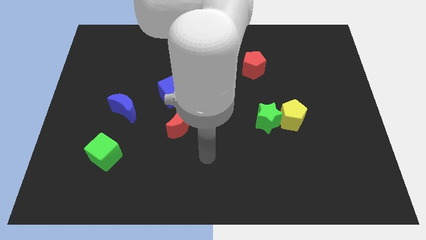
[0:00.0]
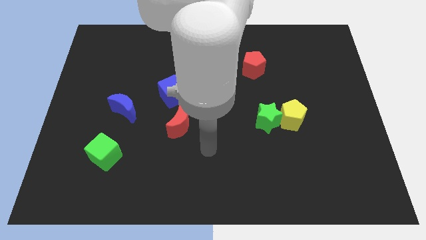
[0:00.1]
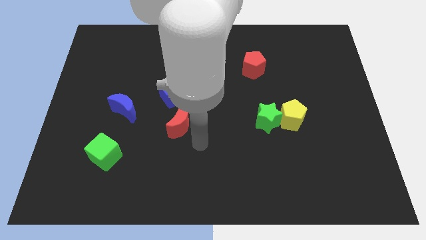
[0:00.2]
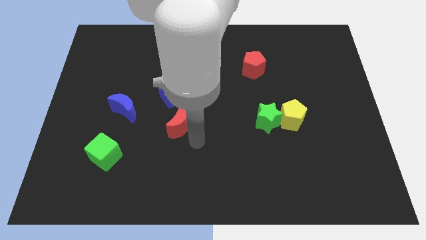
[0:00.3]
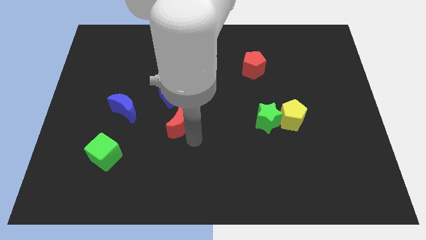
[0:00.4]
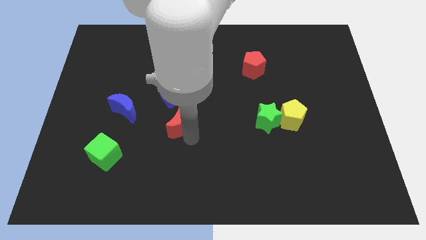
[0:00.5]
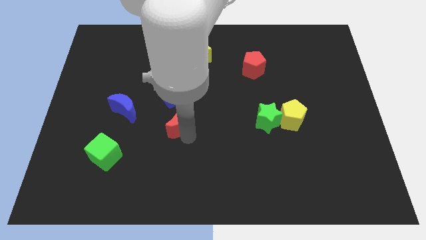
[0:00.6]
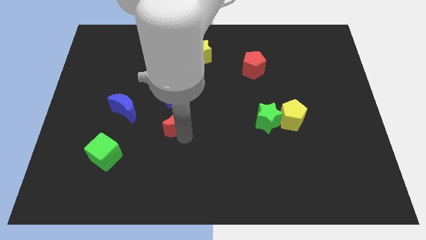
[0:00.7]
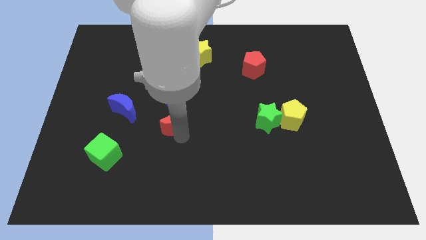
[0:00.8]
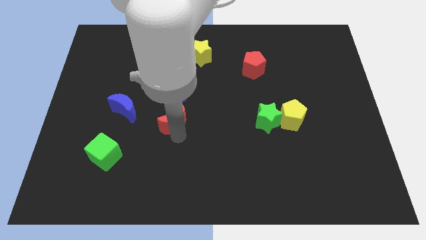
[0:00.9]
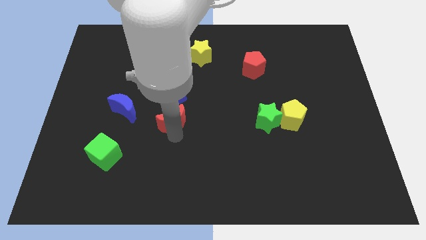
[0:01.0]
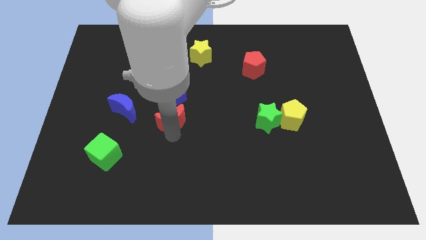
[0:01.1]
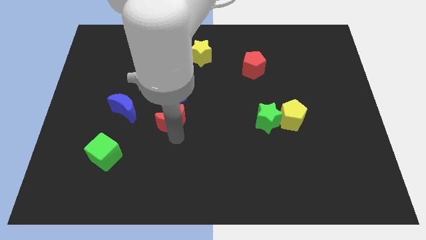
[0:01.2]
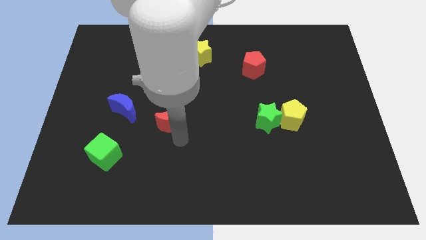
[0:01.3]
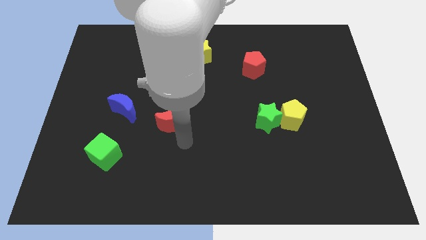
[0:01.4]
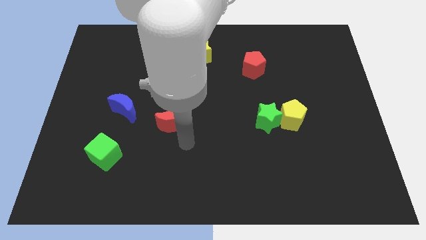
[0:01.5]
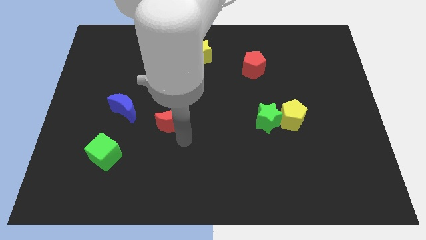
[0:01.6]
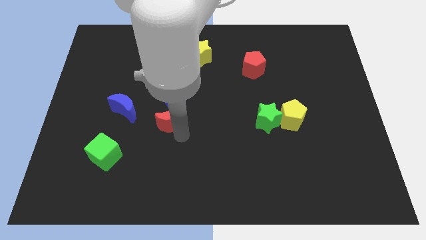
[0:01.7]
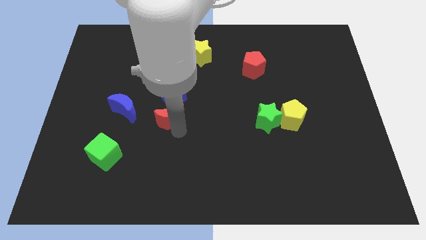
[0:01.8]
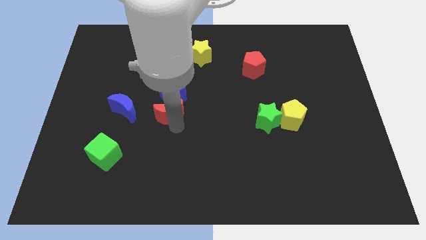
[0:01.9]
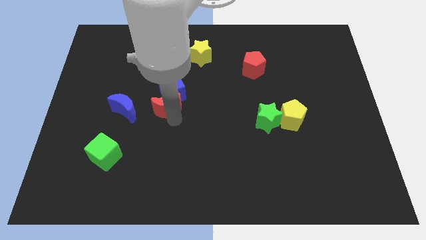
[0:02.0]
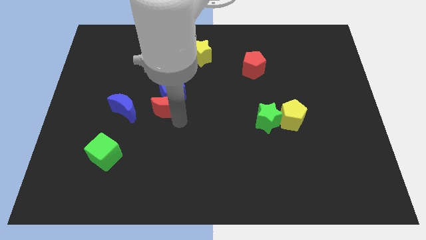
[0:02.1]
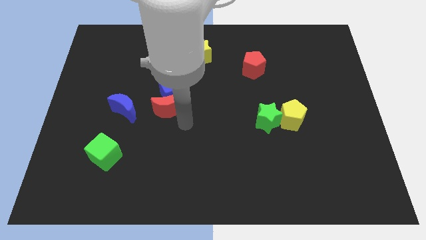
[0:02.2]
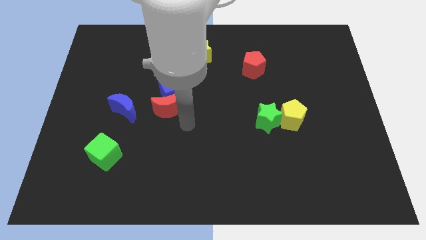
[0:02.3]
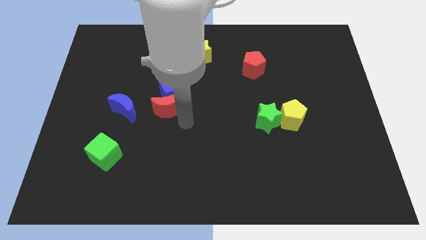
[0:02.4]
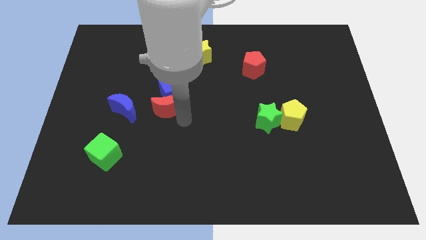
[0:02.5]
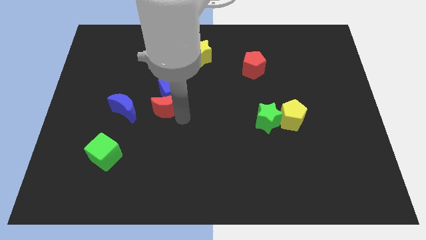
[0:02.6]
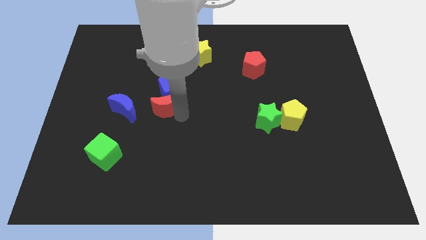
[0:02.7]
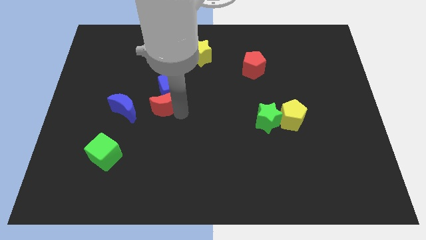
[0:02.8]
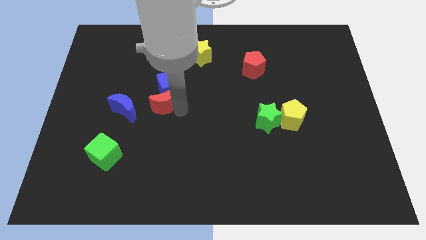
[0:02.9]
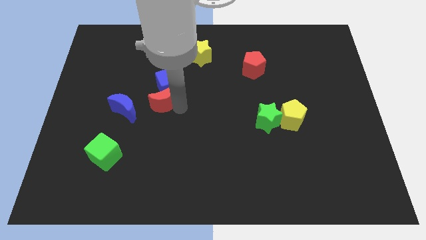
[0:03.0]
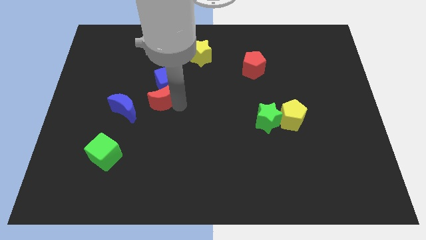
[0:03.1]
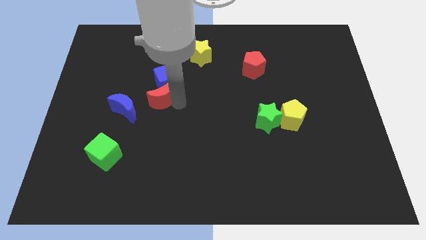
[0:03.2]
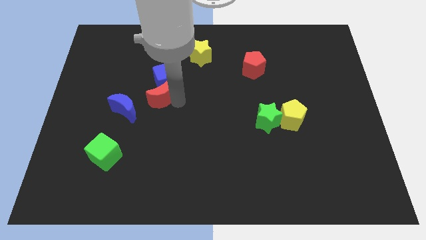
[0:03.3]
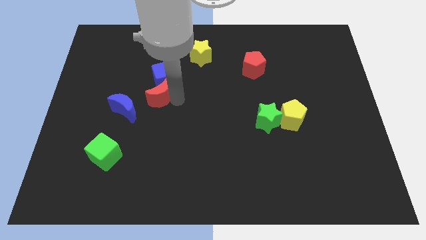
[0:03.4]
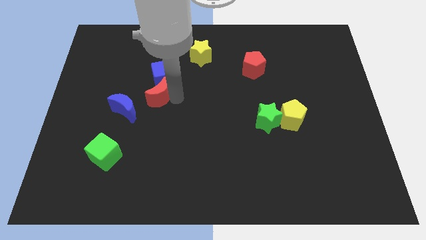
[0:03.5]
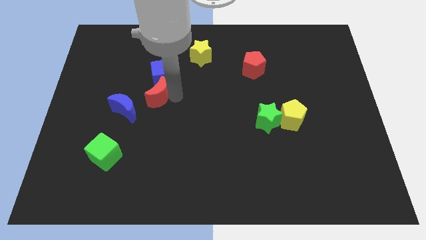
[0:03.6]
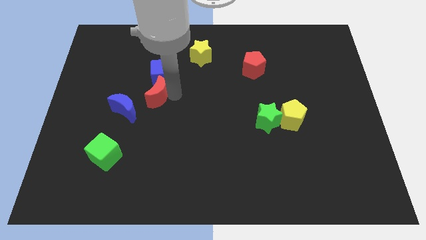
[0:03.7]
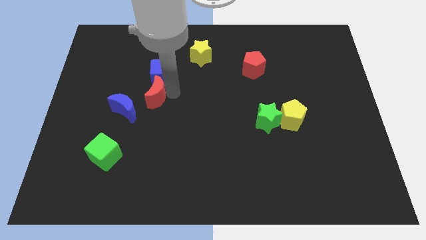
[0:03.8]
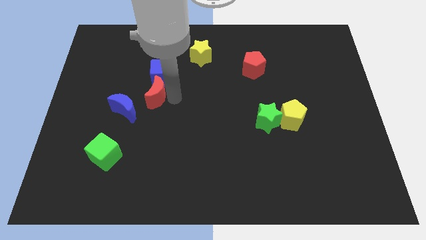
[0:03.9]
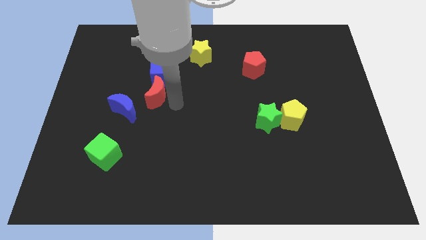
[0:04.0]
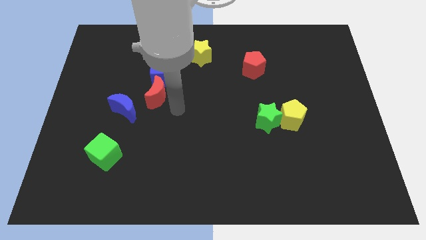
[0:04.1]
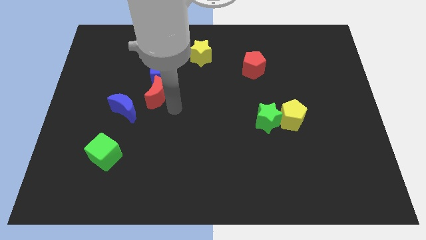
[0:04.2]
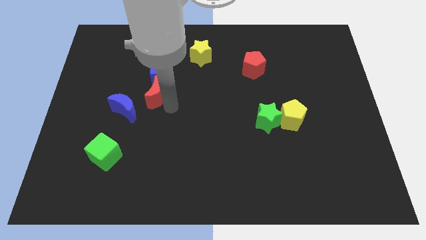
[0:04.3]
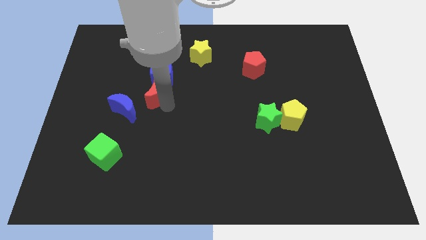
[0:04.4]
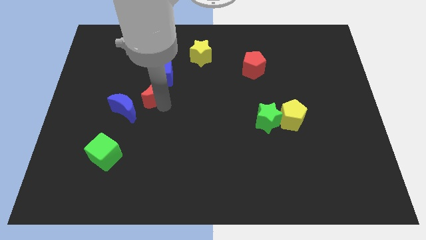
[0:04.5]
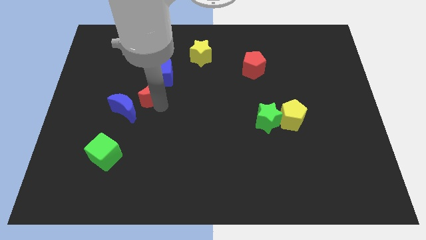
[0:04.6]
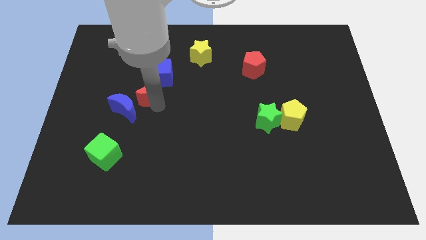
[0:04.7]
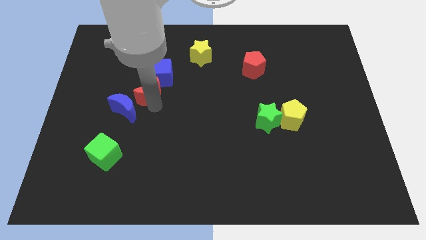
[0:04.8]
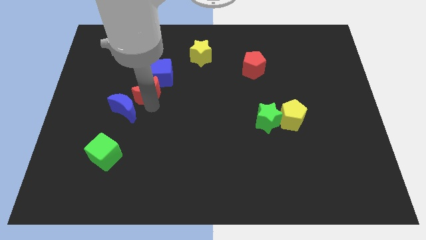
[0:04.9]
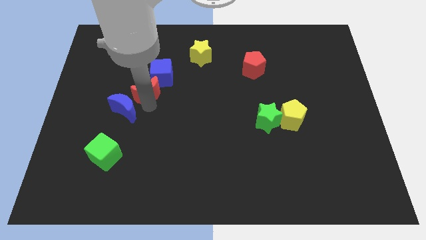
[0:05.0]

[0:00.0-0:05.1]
push the red moon to the top side of the blue moon

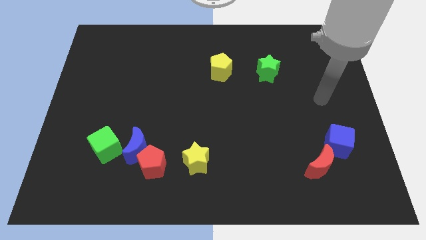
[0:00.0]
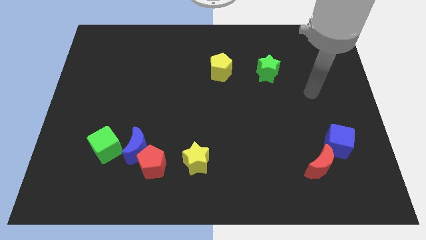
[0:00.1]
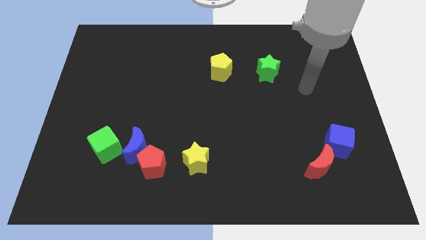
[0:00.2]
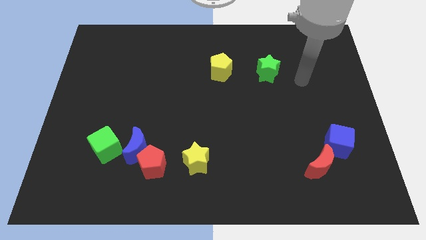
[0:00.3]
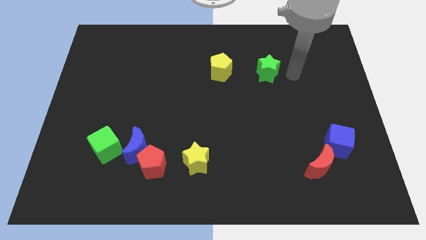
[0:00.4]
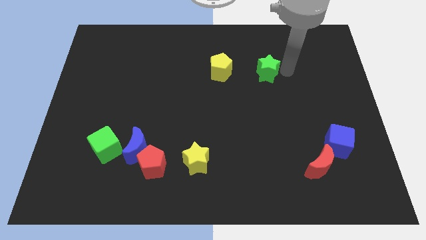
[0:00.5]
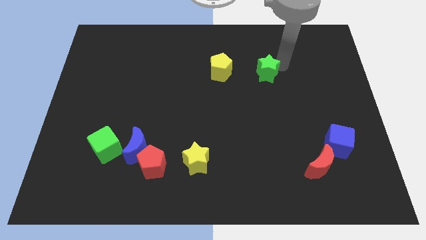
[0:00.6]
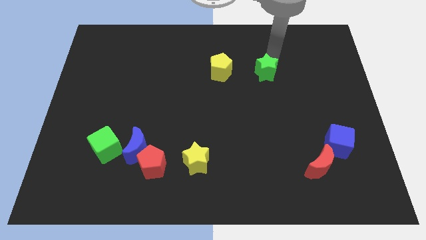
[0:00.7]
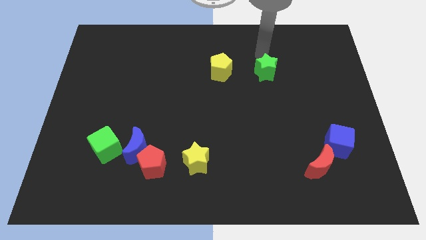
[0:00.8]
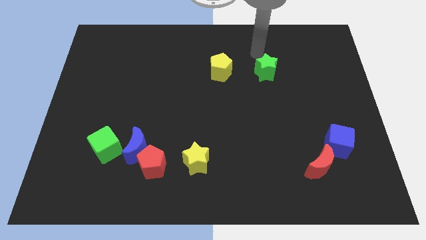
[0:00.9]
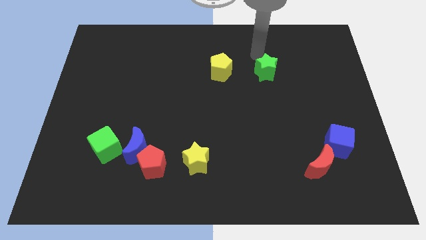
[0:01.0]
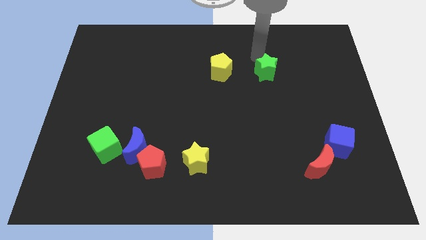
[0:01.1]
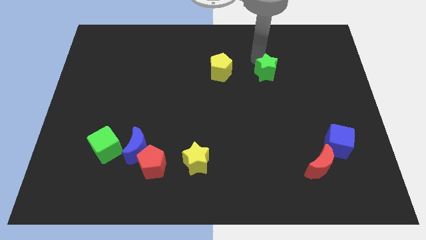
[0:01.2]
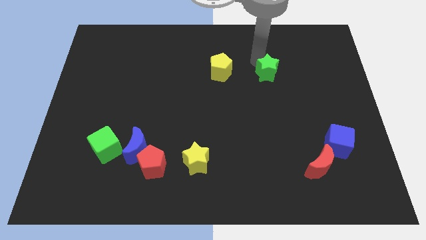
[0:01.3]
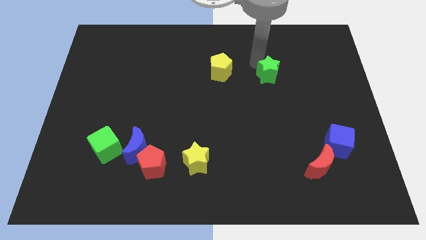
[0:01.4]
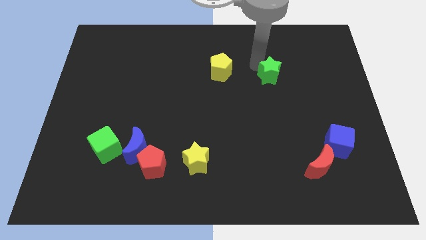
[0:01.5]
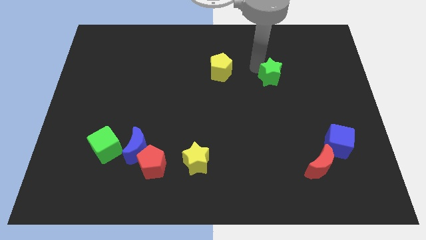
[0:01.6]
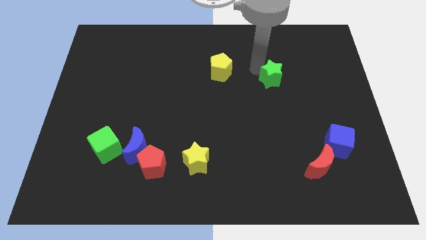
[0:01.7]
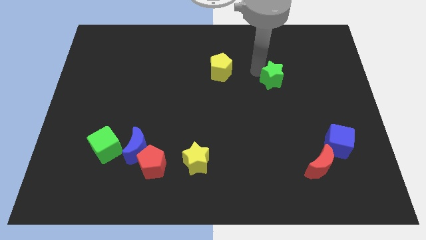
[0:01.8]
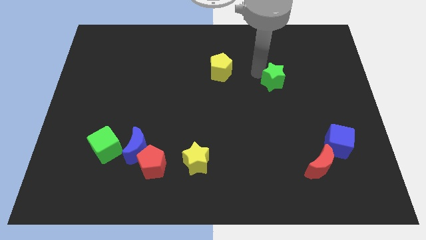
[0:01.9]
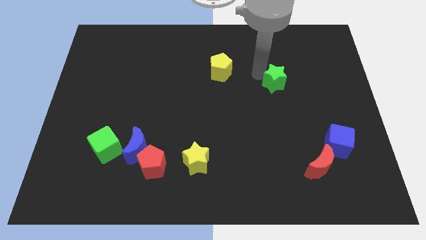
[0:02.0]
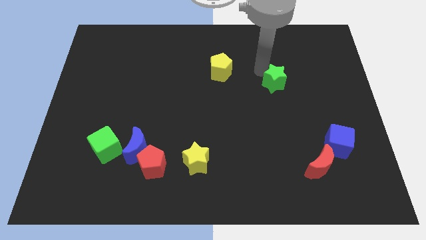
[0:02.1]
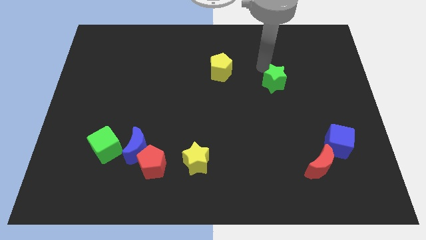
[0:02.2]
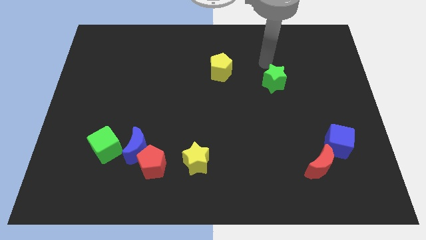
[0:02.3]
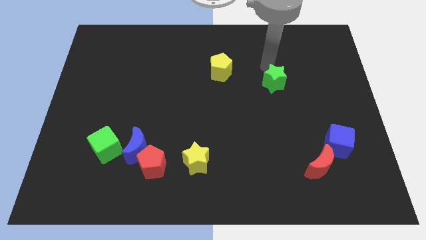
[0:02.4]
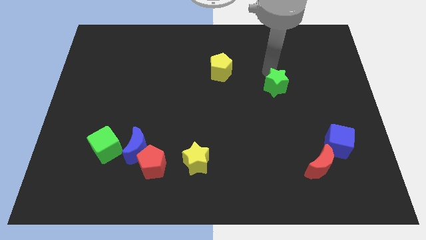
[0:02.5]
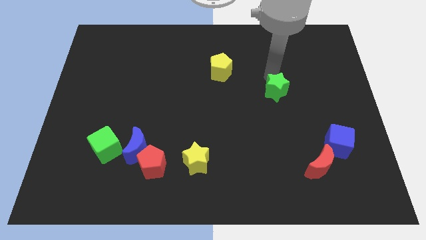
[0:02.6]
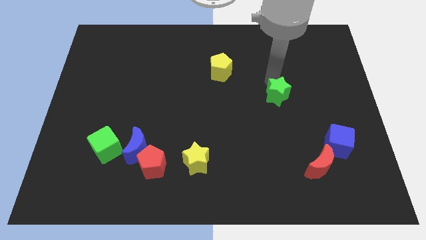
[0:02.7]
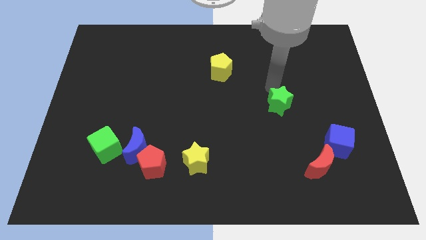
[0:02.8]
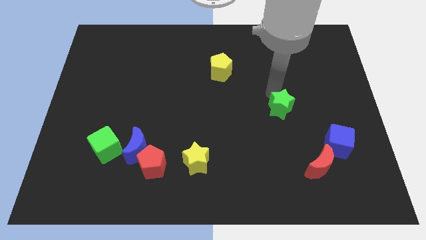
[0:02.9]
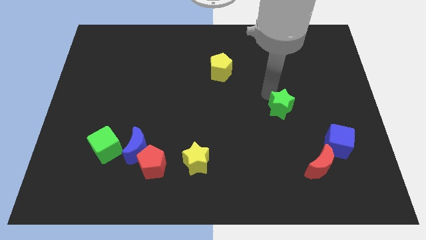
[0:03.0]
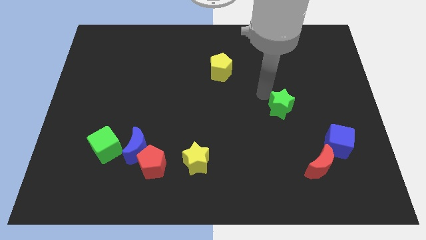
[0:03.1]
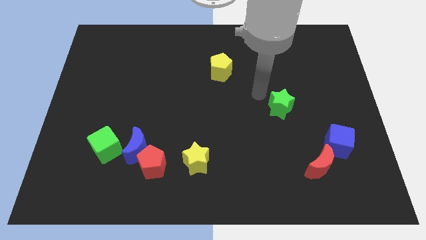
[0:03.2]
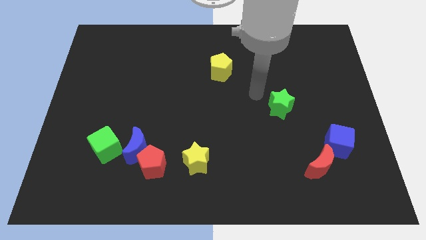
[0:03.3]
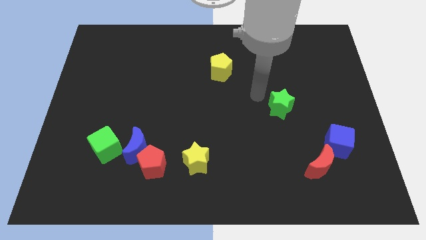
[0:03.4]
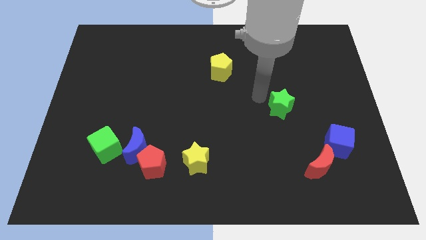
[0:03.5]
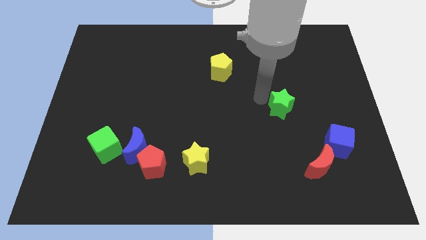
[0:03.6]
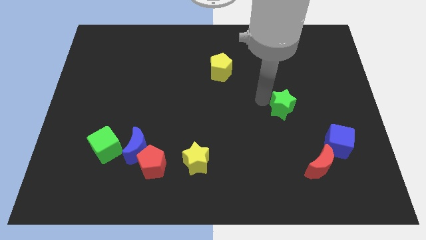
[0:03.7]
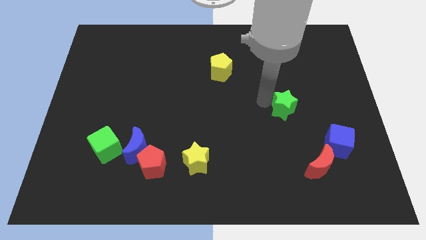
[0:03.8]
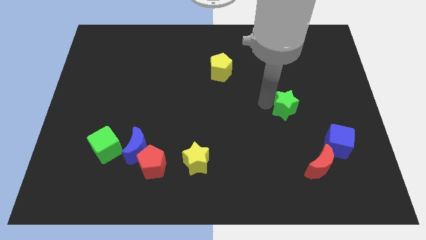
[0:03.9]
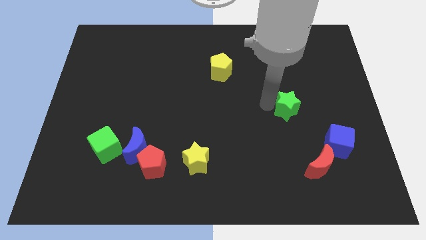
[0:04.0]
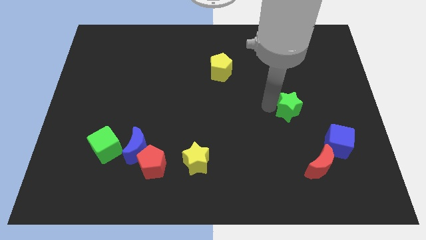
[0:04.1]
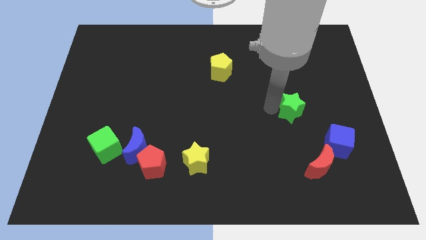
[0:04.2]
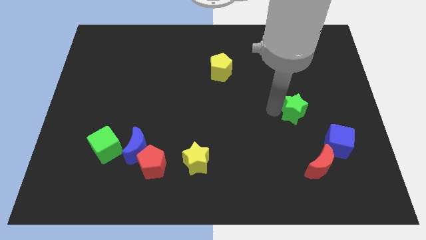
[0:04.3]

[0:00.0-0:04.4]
push the green star to the top of the red moon
